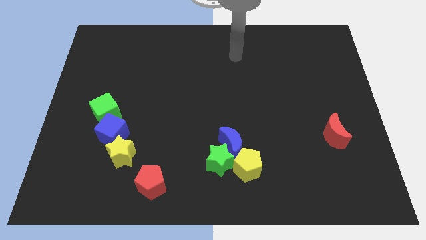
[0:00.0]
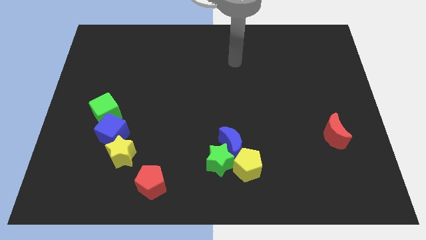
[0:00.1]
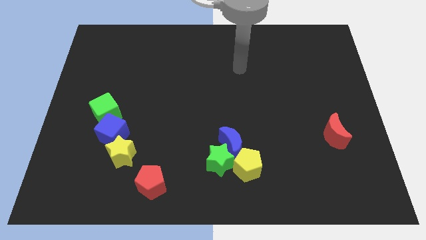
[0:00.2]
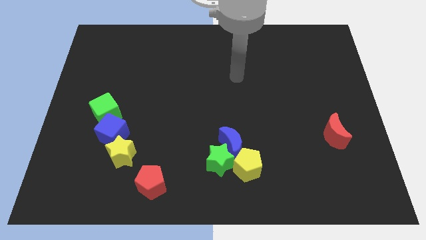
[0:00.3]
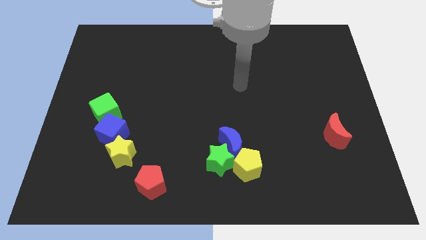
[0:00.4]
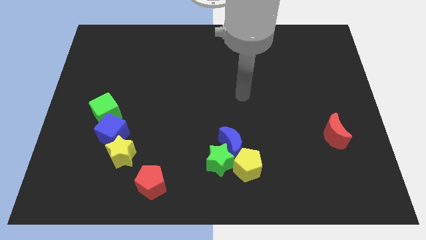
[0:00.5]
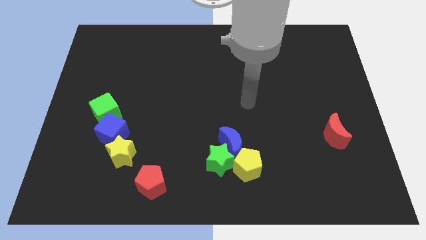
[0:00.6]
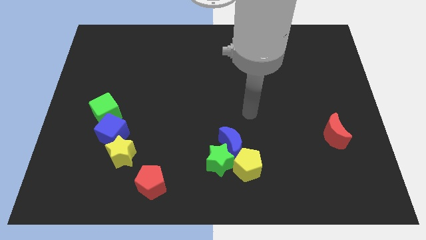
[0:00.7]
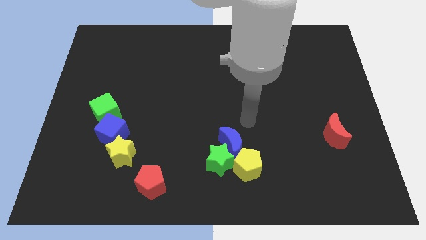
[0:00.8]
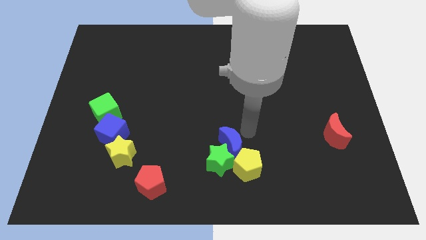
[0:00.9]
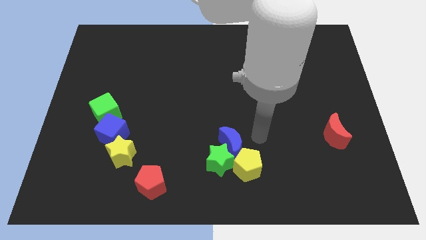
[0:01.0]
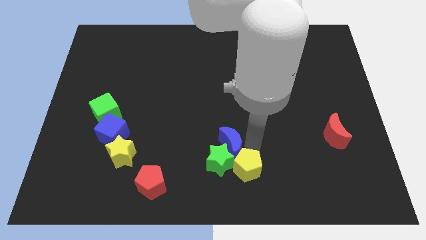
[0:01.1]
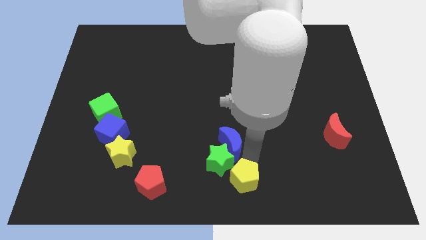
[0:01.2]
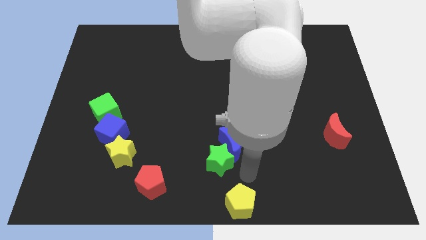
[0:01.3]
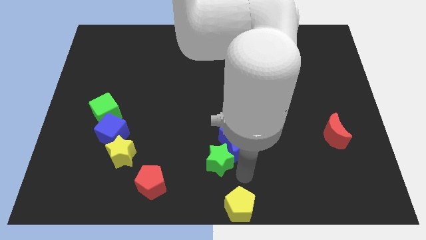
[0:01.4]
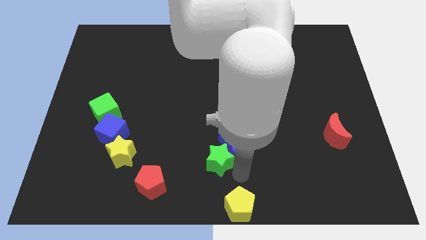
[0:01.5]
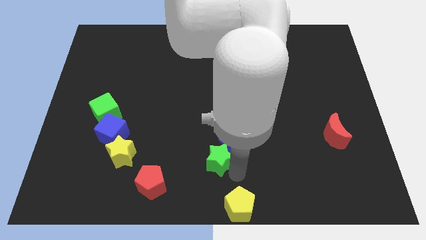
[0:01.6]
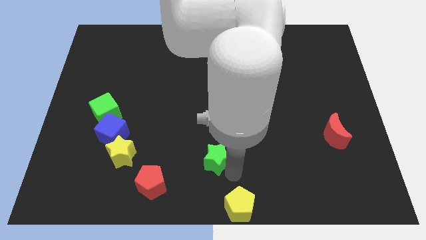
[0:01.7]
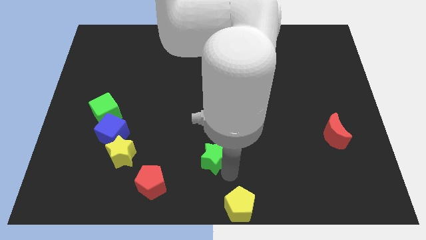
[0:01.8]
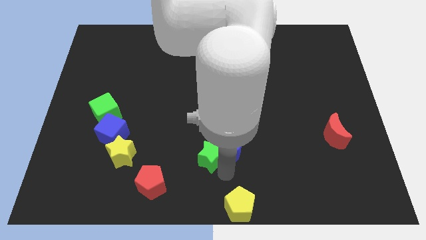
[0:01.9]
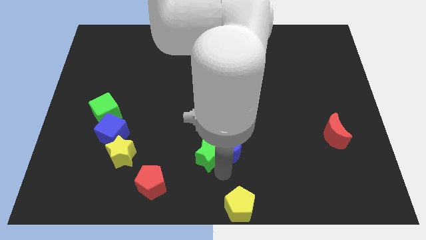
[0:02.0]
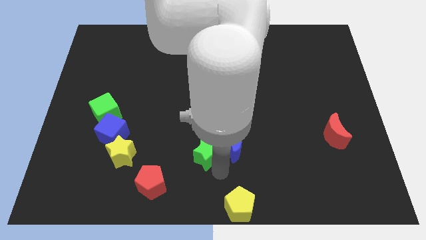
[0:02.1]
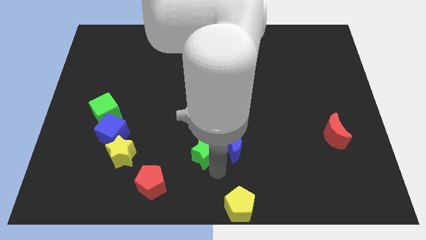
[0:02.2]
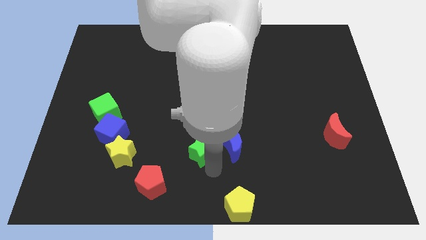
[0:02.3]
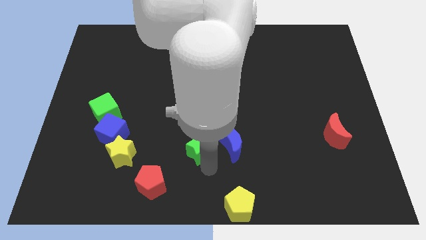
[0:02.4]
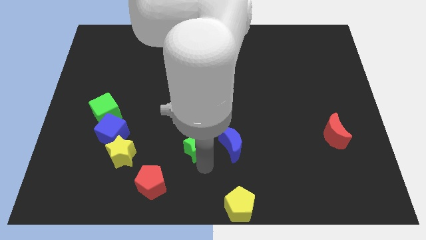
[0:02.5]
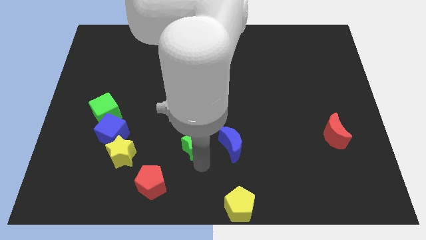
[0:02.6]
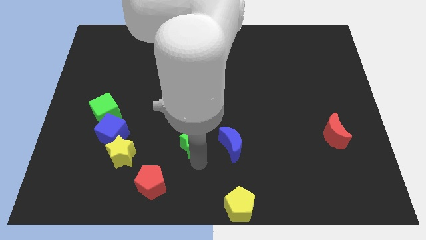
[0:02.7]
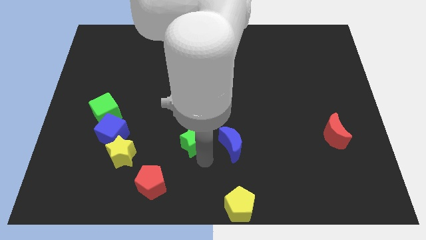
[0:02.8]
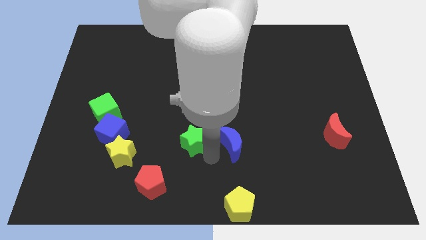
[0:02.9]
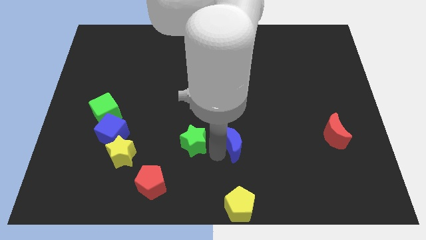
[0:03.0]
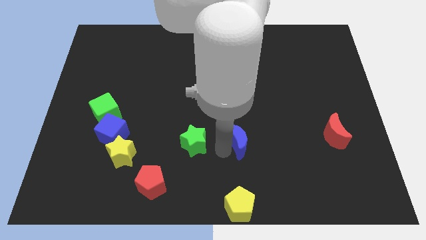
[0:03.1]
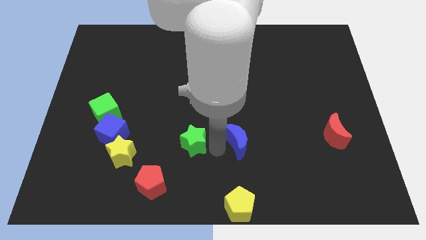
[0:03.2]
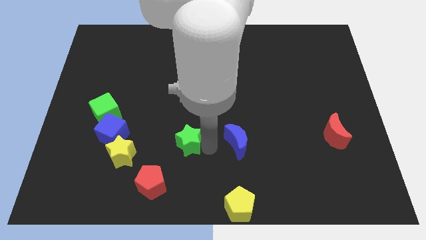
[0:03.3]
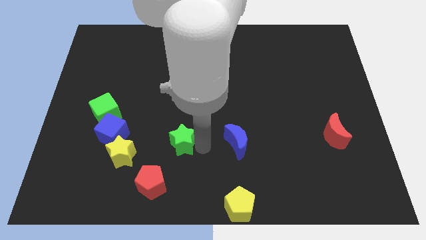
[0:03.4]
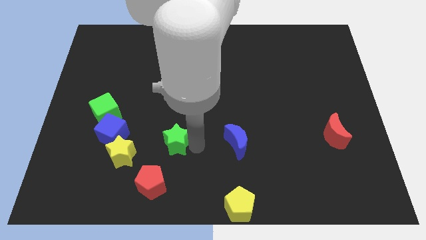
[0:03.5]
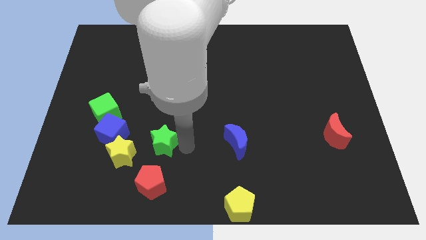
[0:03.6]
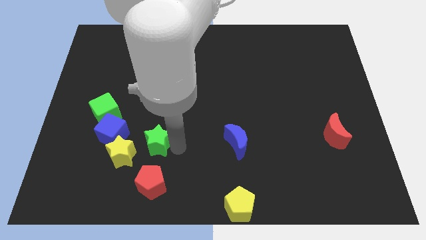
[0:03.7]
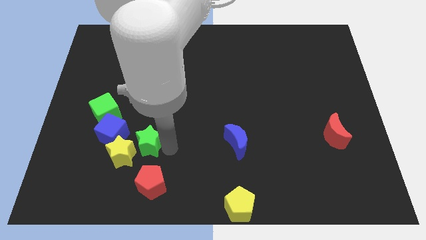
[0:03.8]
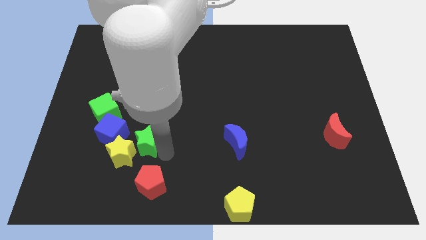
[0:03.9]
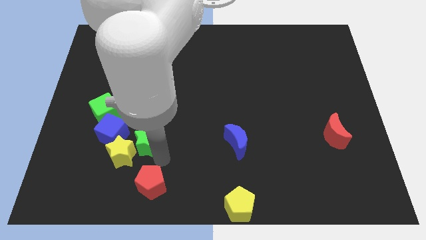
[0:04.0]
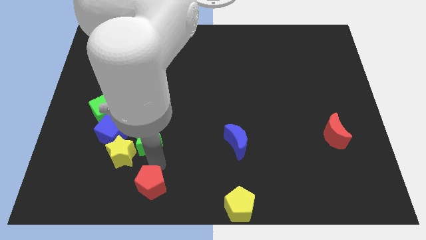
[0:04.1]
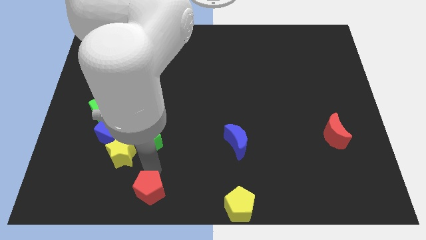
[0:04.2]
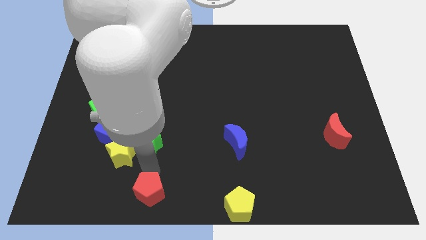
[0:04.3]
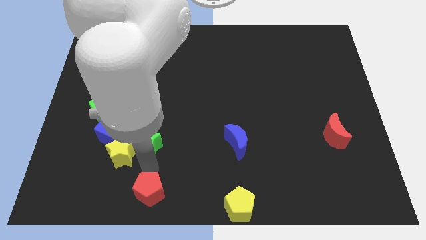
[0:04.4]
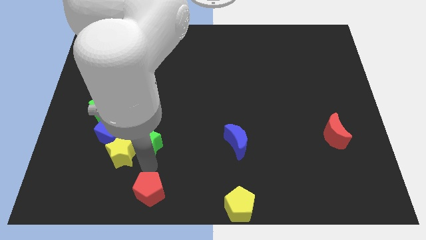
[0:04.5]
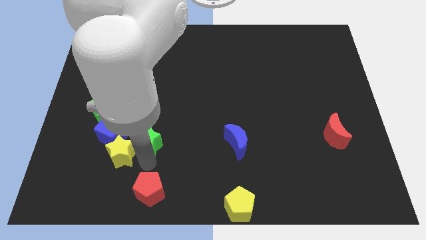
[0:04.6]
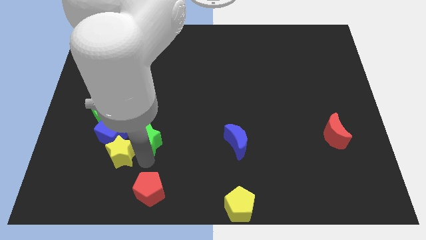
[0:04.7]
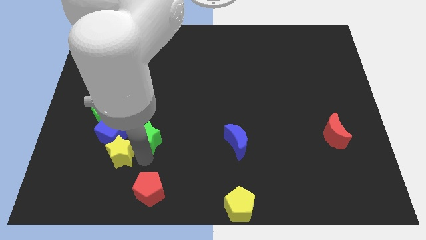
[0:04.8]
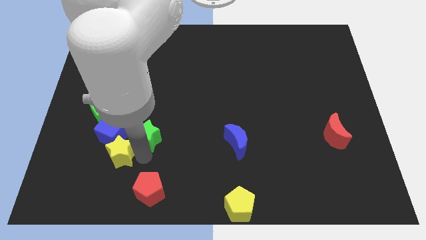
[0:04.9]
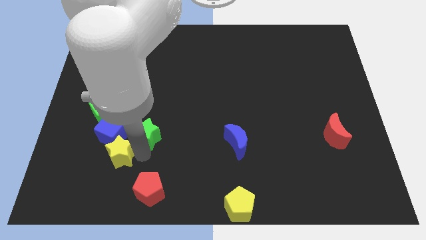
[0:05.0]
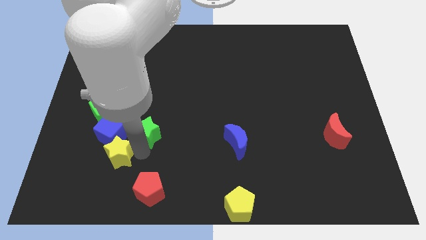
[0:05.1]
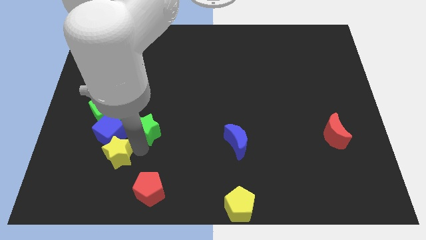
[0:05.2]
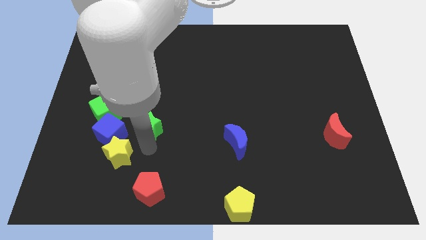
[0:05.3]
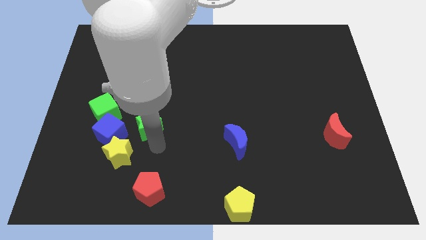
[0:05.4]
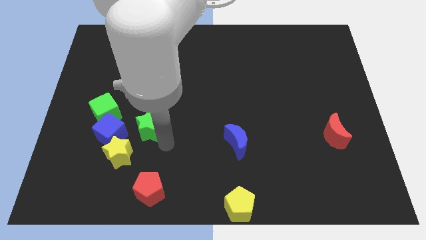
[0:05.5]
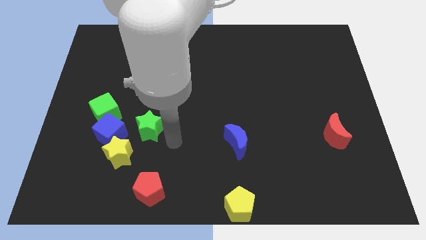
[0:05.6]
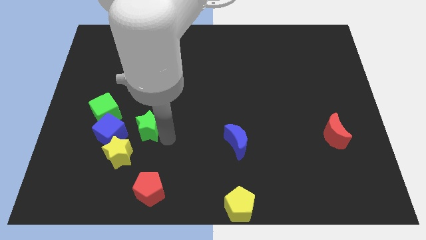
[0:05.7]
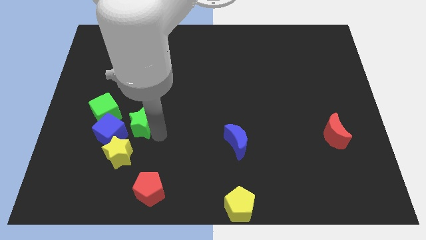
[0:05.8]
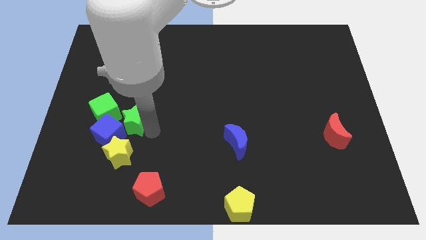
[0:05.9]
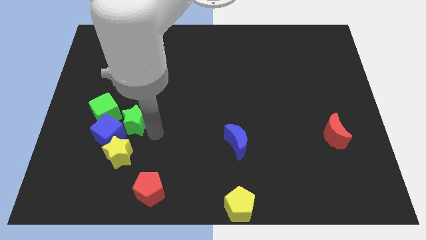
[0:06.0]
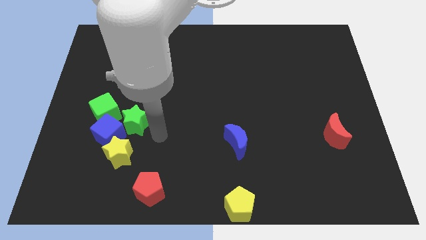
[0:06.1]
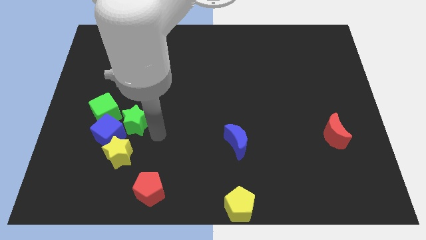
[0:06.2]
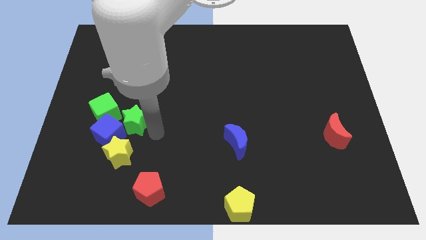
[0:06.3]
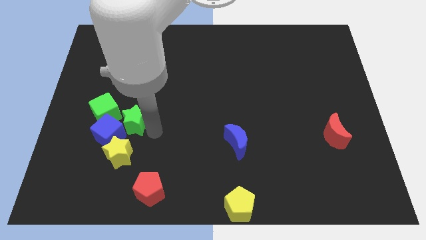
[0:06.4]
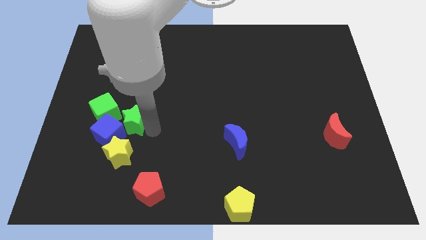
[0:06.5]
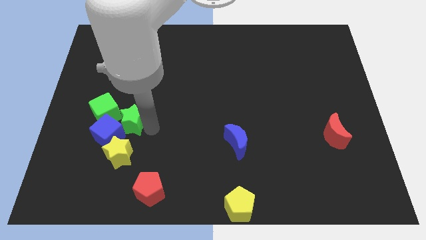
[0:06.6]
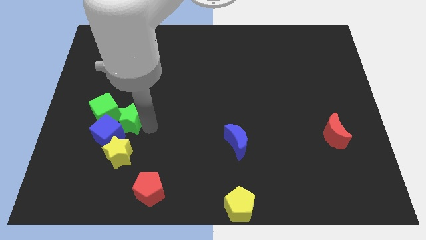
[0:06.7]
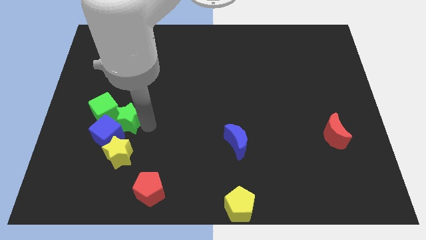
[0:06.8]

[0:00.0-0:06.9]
push the green star next to the green cube
